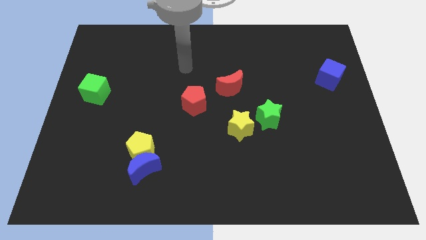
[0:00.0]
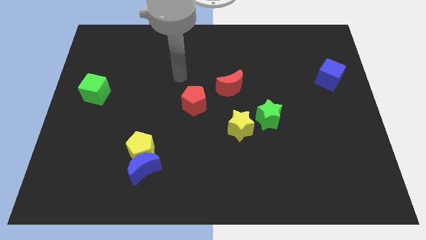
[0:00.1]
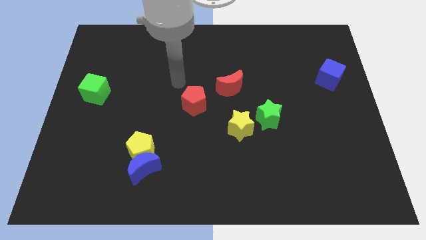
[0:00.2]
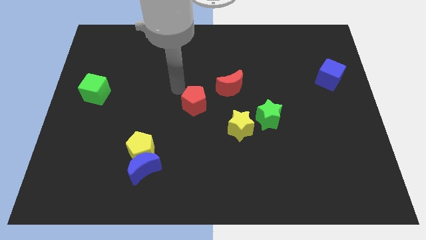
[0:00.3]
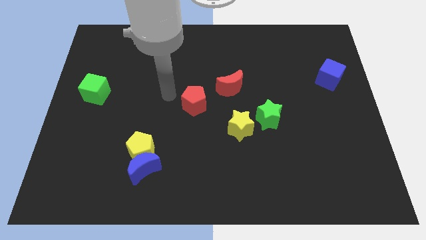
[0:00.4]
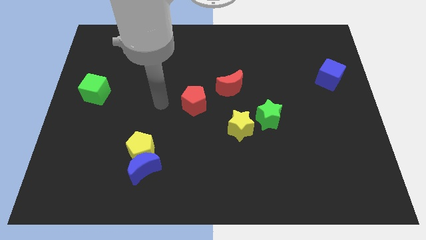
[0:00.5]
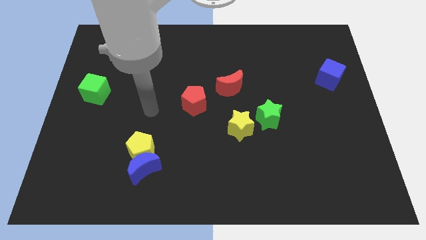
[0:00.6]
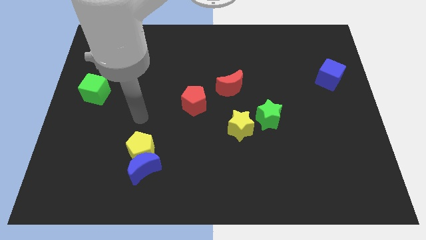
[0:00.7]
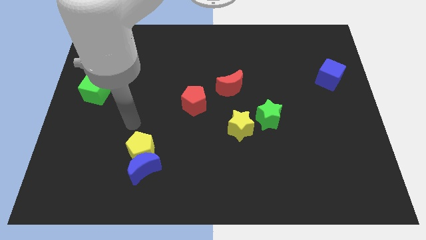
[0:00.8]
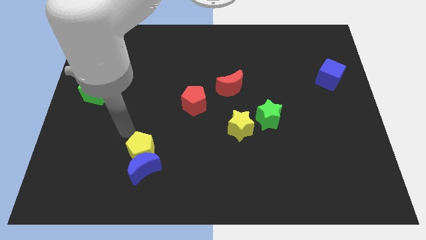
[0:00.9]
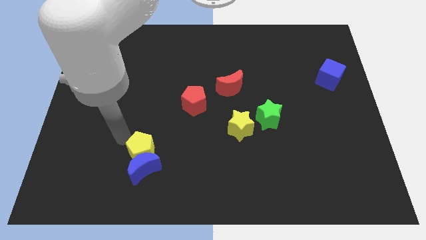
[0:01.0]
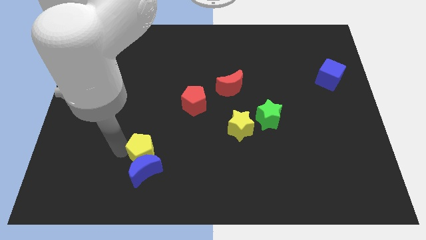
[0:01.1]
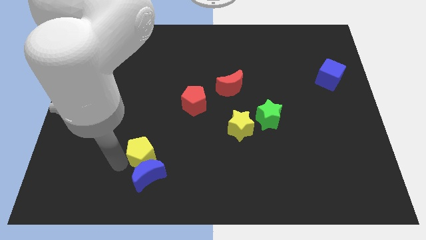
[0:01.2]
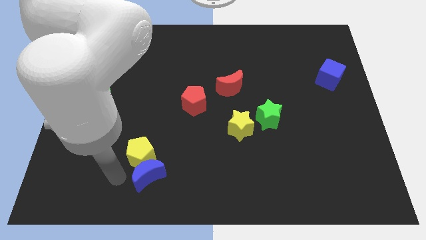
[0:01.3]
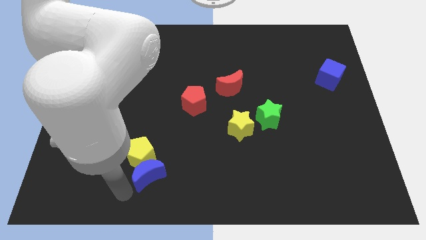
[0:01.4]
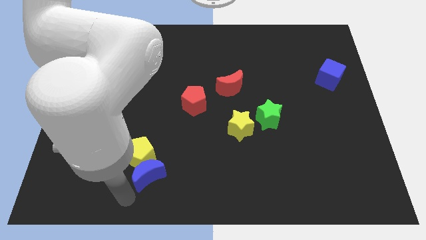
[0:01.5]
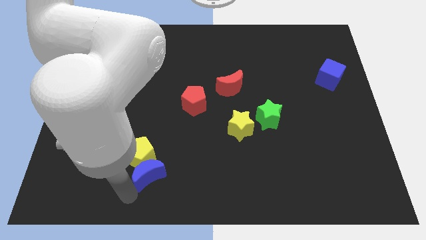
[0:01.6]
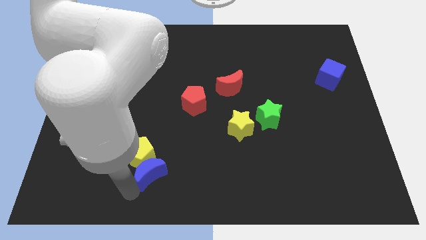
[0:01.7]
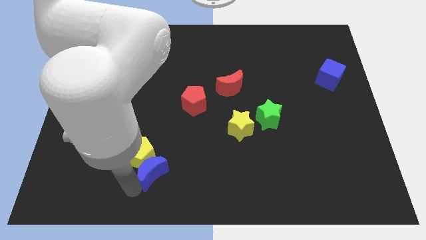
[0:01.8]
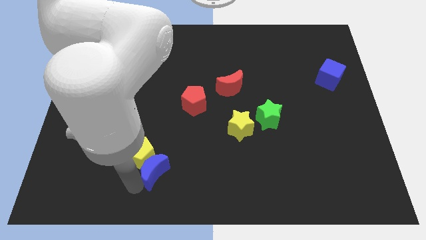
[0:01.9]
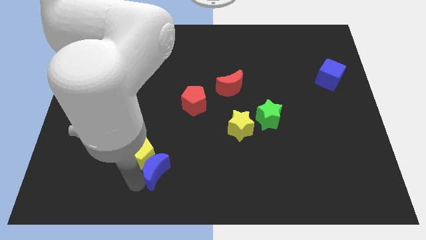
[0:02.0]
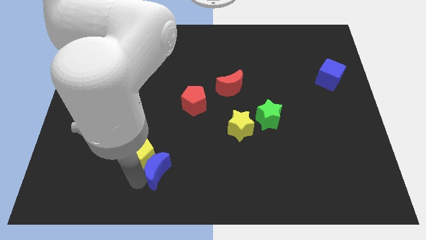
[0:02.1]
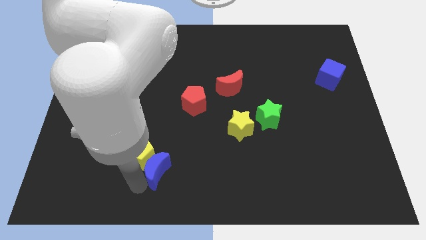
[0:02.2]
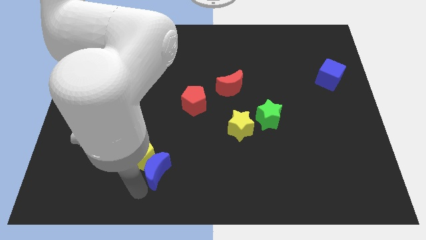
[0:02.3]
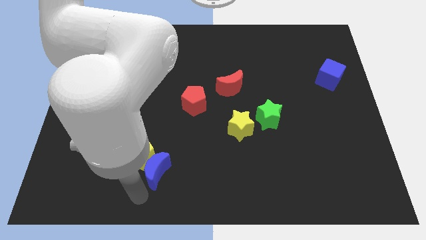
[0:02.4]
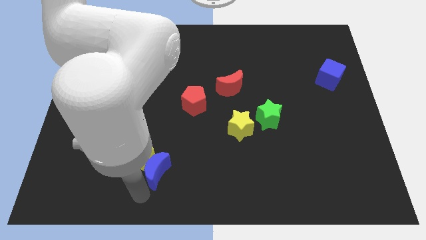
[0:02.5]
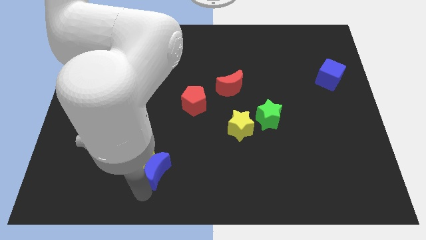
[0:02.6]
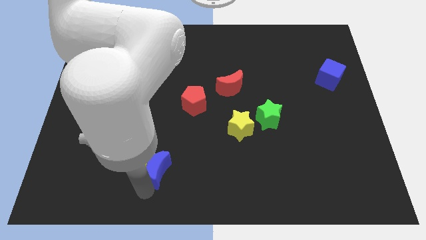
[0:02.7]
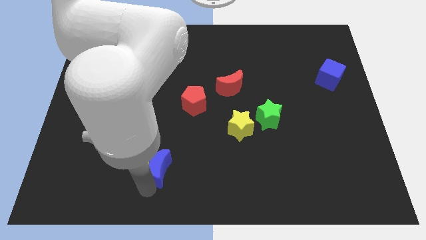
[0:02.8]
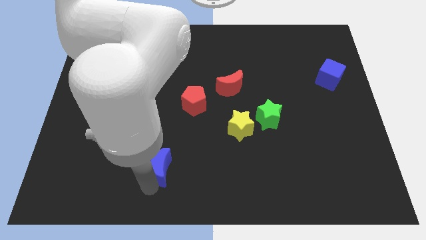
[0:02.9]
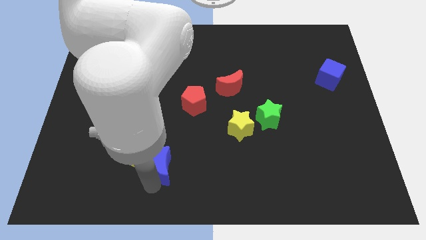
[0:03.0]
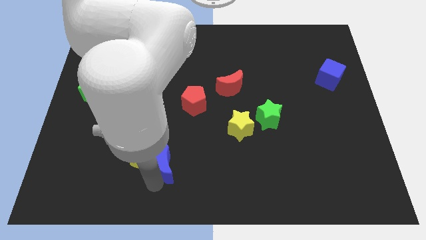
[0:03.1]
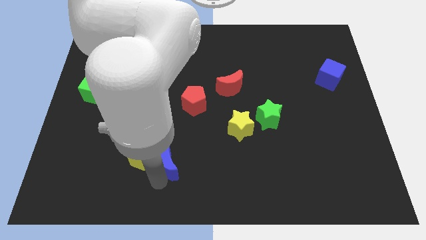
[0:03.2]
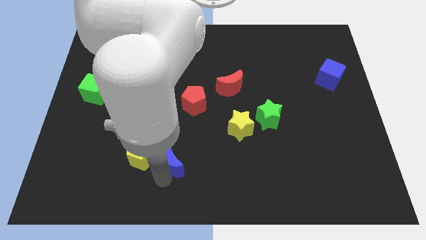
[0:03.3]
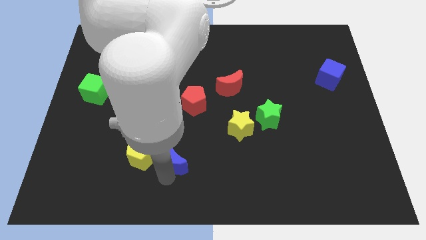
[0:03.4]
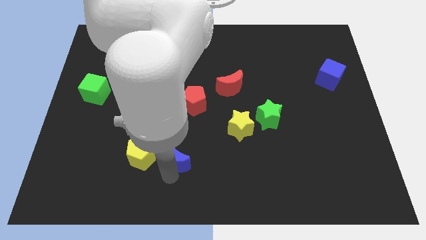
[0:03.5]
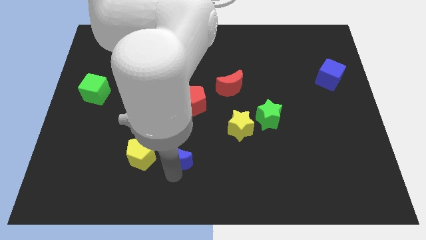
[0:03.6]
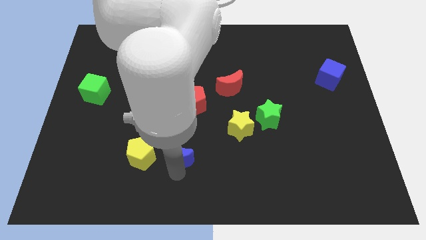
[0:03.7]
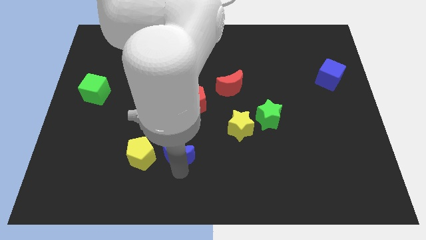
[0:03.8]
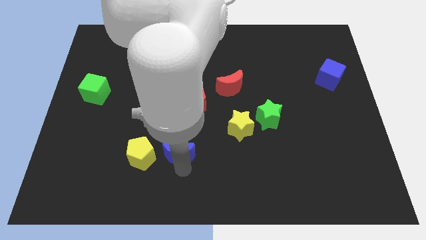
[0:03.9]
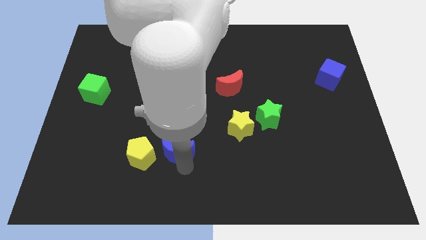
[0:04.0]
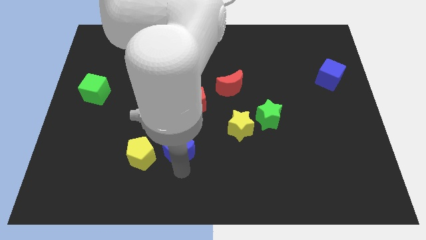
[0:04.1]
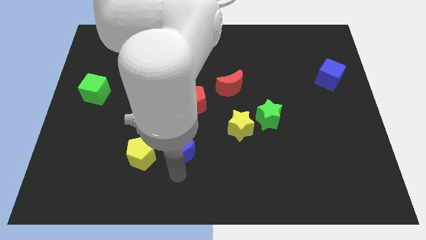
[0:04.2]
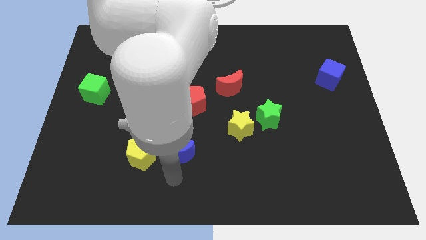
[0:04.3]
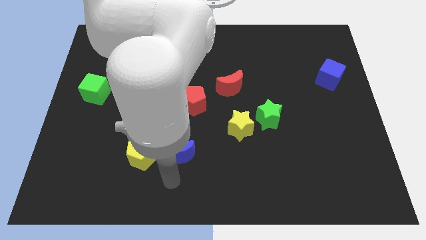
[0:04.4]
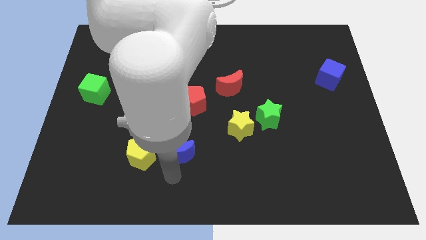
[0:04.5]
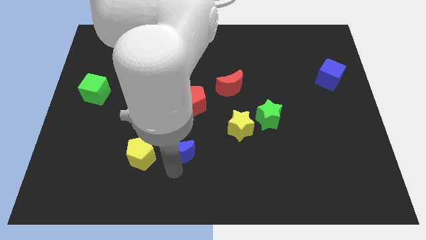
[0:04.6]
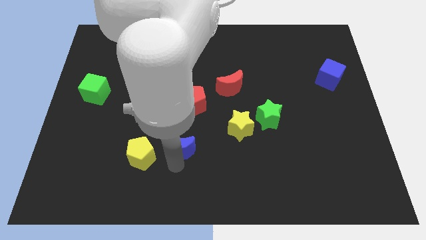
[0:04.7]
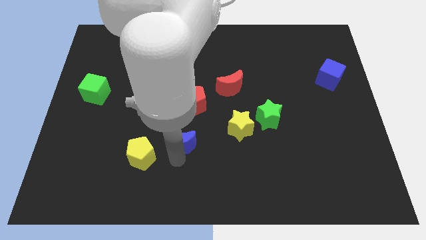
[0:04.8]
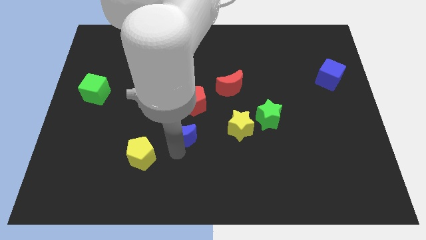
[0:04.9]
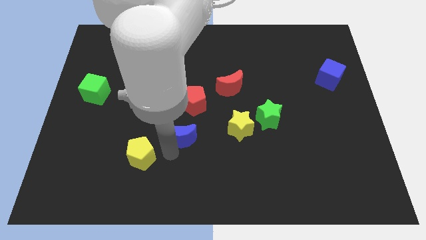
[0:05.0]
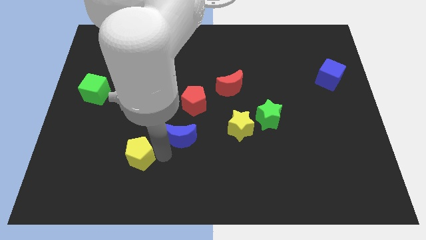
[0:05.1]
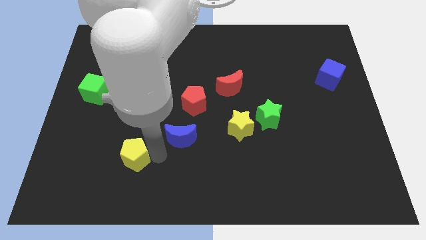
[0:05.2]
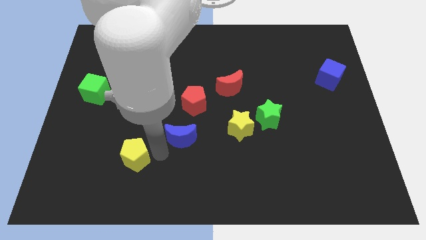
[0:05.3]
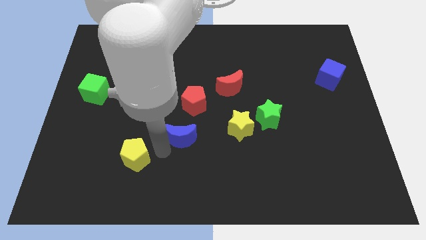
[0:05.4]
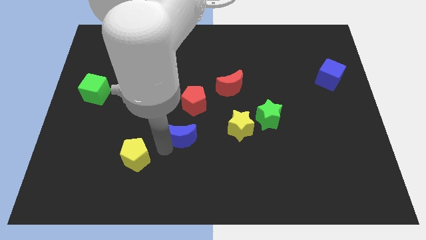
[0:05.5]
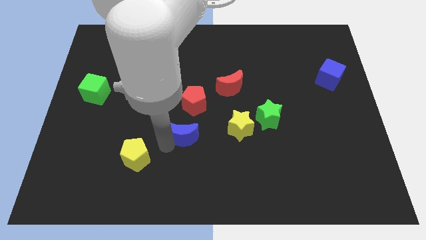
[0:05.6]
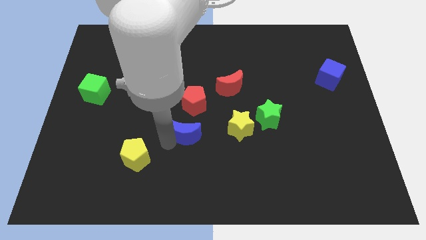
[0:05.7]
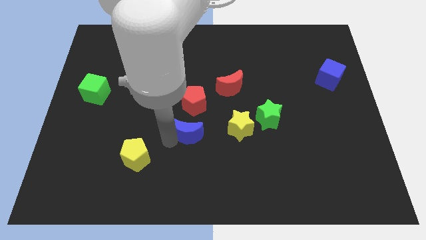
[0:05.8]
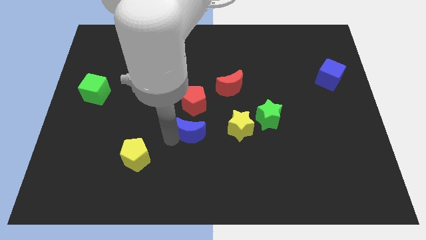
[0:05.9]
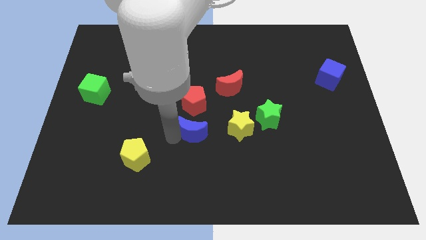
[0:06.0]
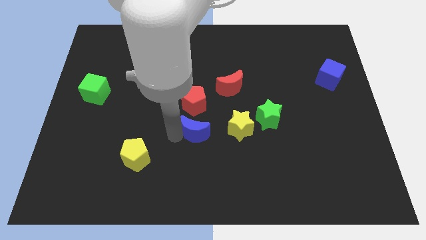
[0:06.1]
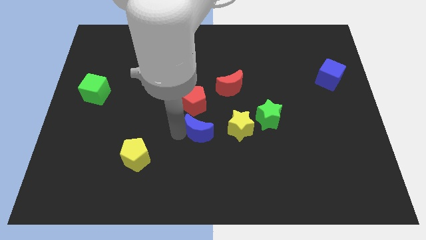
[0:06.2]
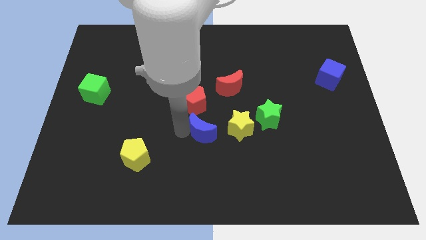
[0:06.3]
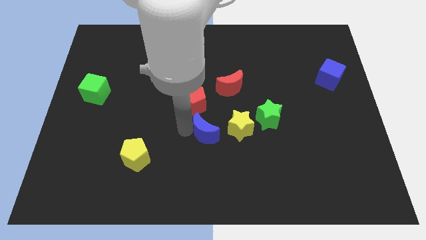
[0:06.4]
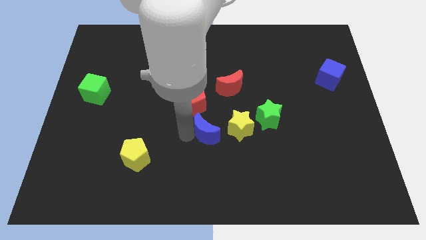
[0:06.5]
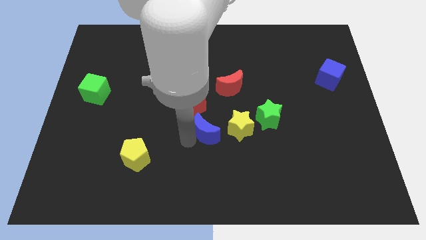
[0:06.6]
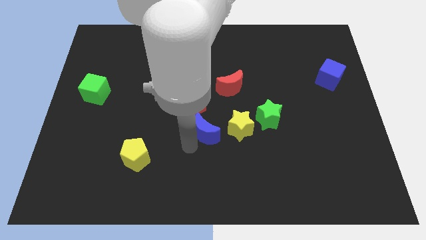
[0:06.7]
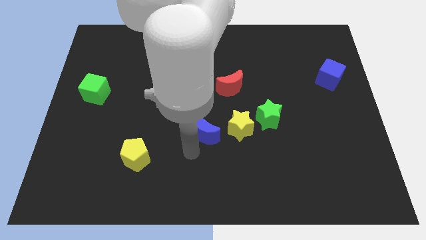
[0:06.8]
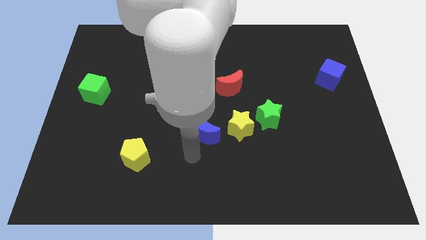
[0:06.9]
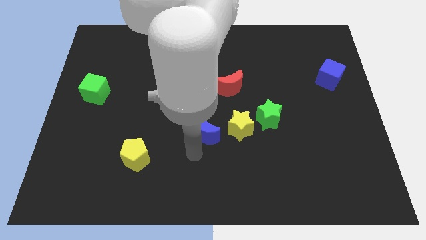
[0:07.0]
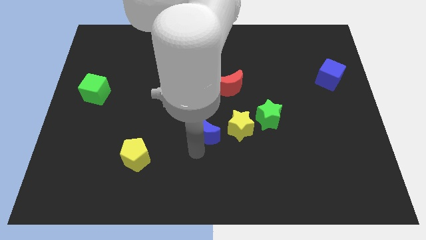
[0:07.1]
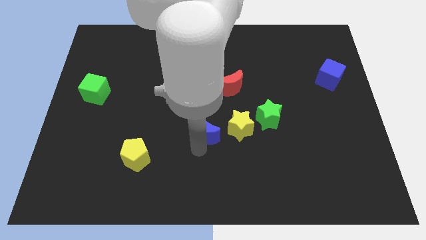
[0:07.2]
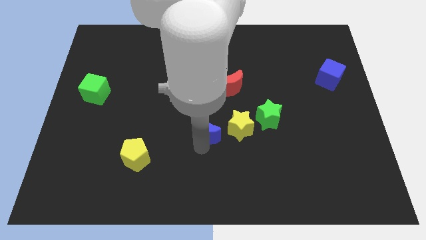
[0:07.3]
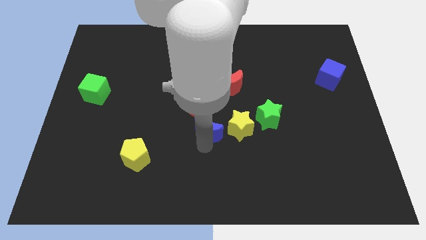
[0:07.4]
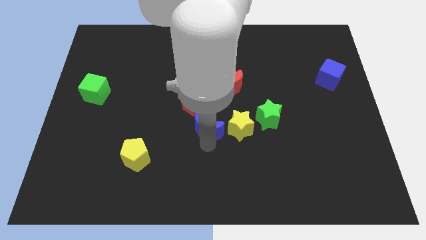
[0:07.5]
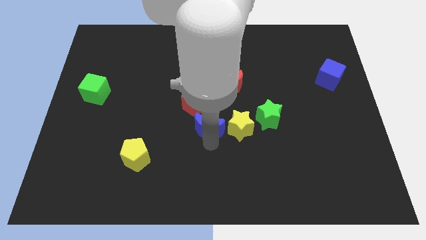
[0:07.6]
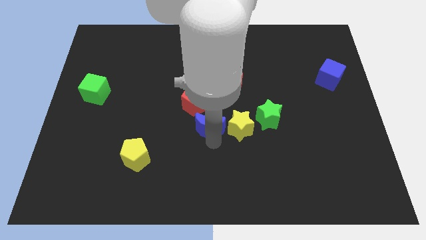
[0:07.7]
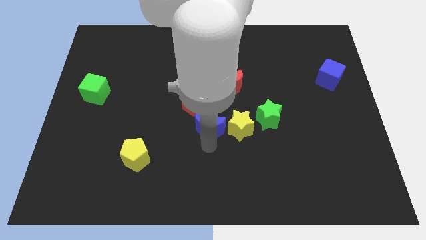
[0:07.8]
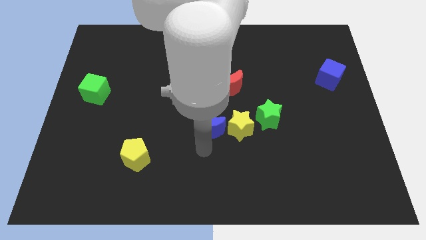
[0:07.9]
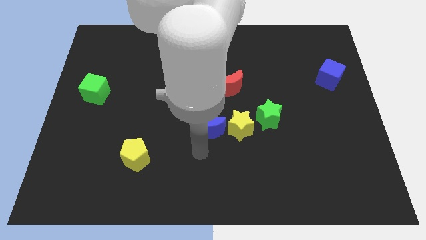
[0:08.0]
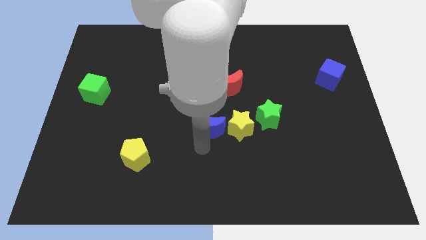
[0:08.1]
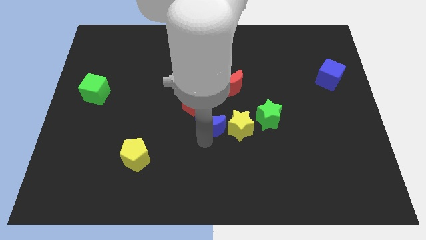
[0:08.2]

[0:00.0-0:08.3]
put the blue moon to the top left side of the yellow star
